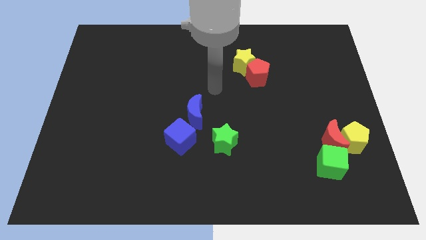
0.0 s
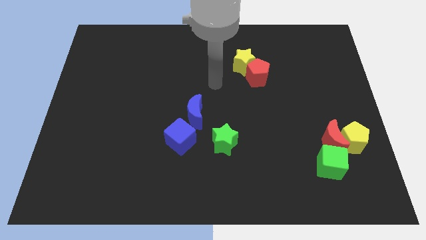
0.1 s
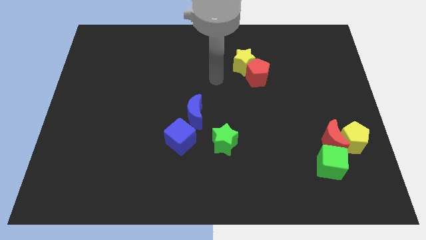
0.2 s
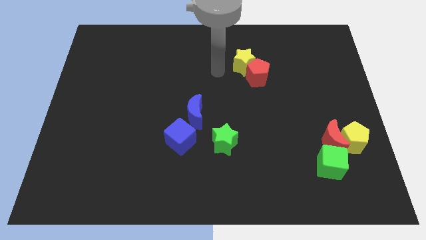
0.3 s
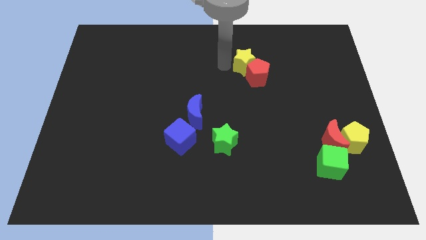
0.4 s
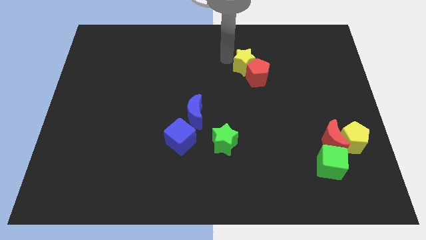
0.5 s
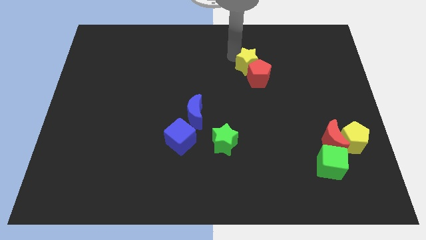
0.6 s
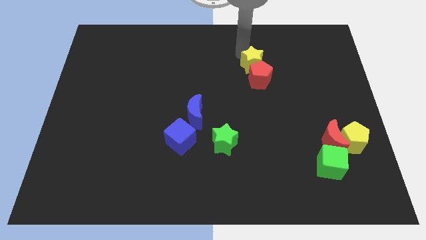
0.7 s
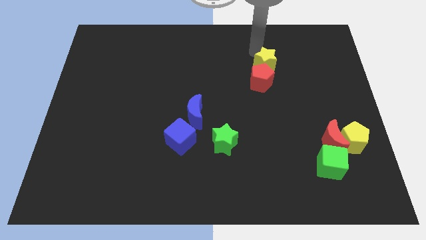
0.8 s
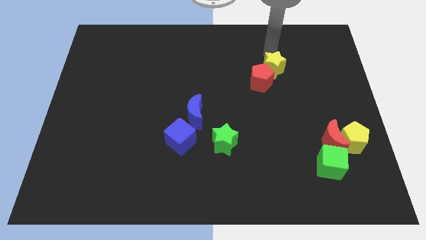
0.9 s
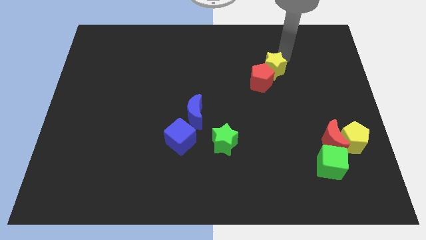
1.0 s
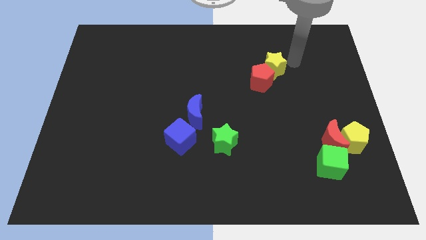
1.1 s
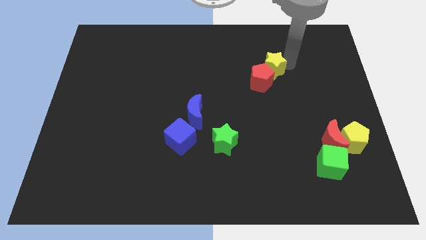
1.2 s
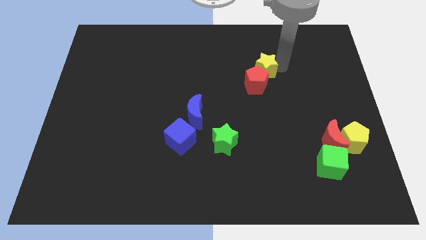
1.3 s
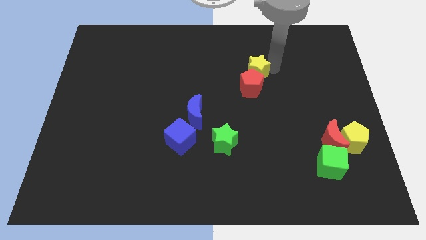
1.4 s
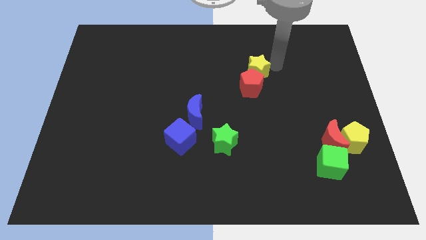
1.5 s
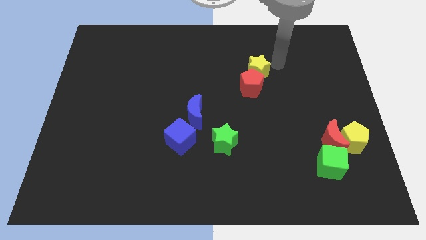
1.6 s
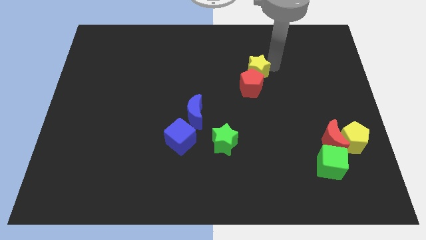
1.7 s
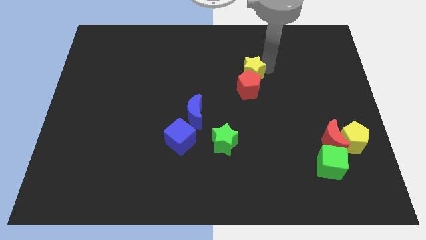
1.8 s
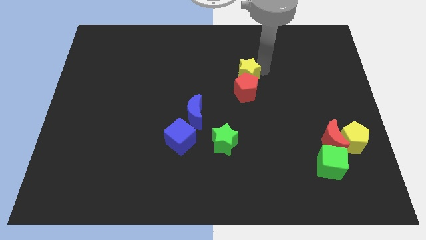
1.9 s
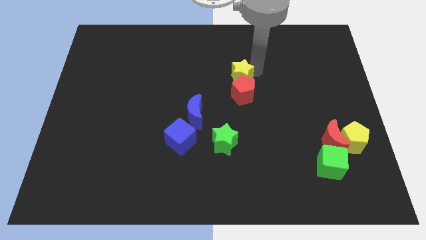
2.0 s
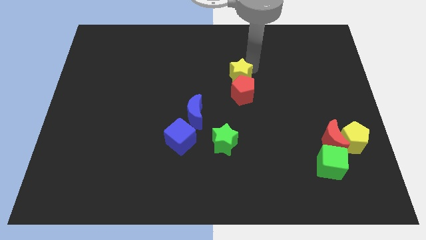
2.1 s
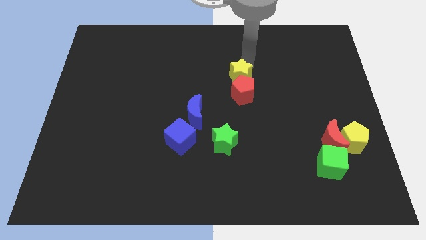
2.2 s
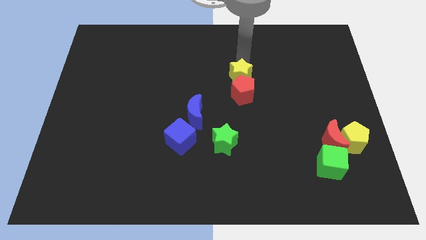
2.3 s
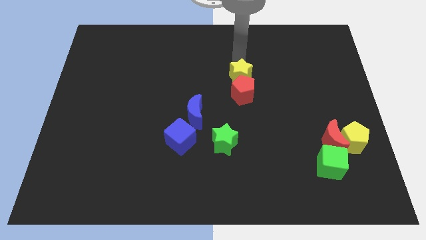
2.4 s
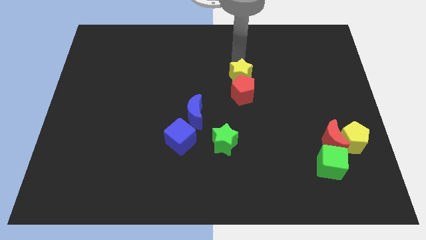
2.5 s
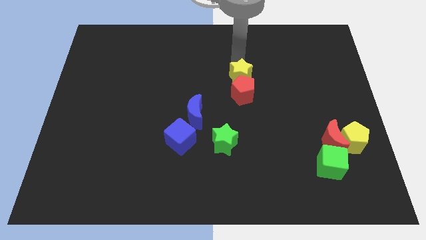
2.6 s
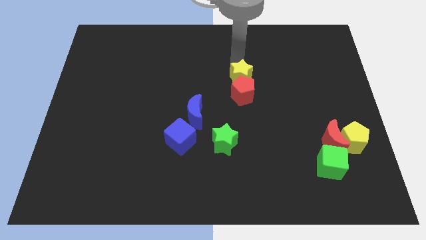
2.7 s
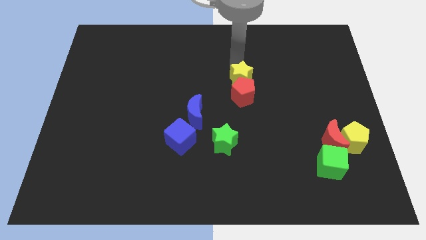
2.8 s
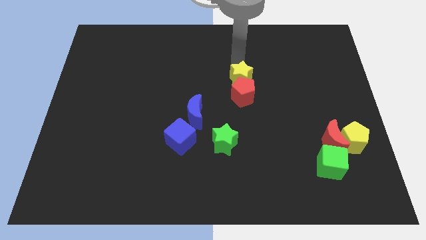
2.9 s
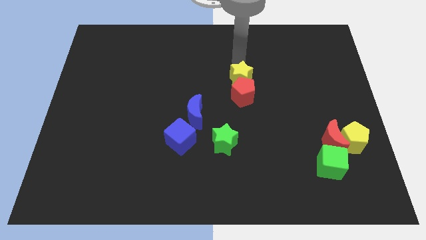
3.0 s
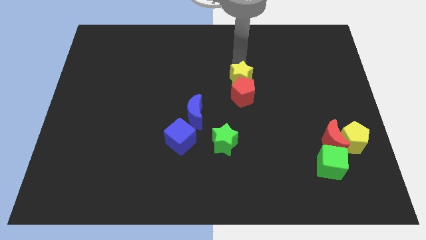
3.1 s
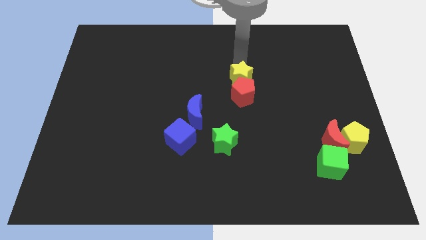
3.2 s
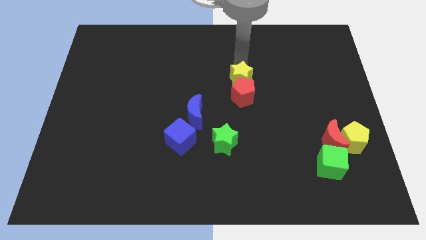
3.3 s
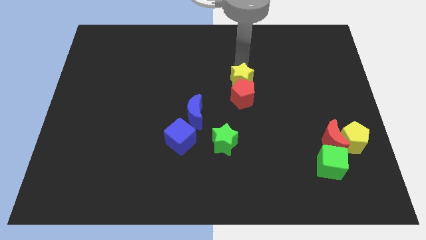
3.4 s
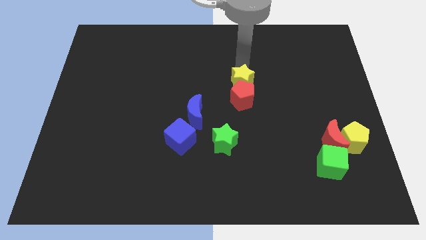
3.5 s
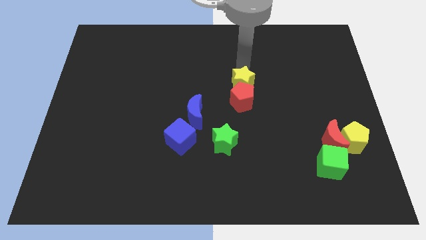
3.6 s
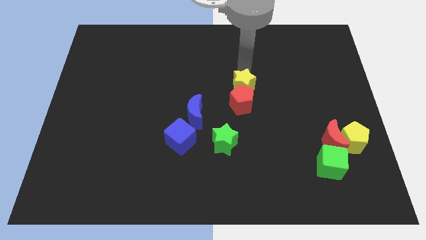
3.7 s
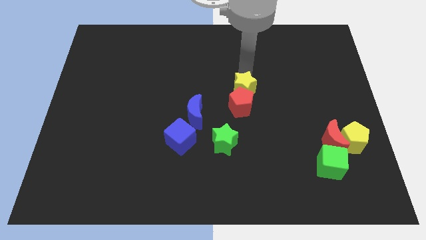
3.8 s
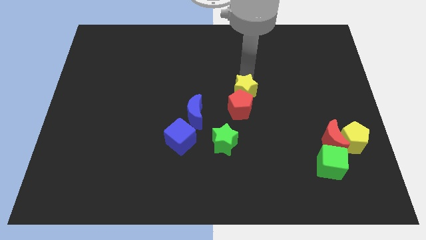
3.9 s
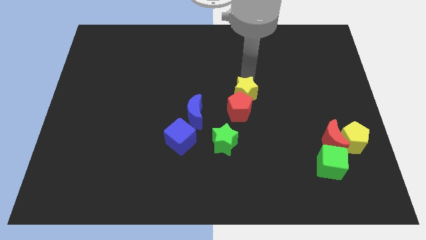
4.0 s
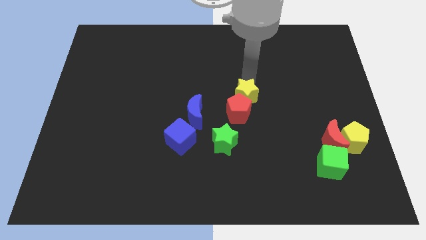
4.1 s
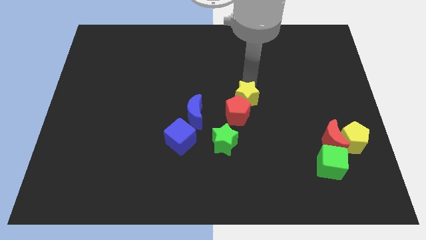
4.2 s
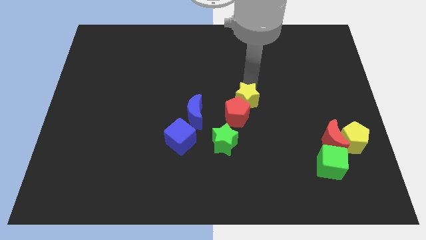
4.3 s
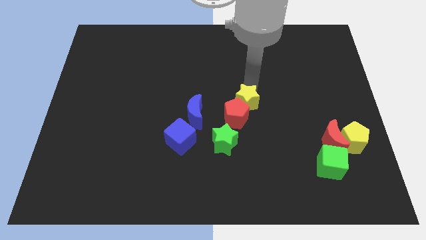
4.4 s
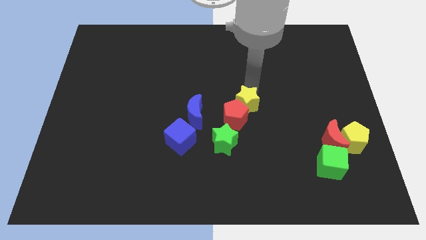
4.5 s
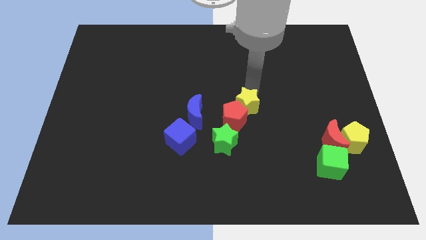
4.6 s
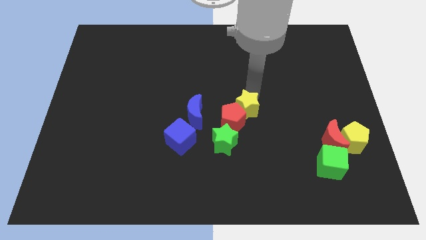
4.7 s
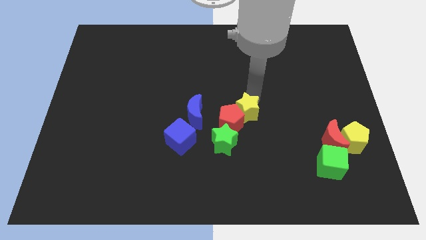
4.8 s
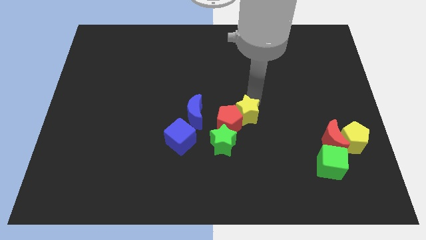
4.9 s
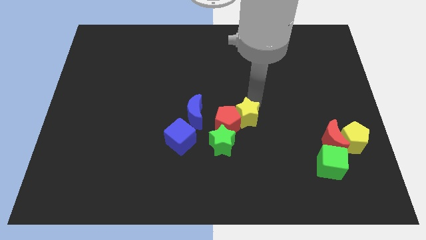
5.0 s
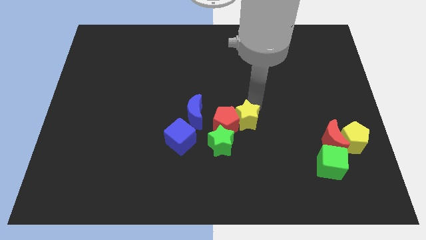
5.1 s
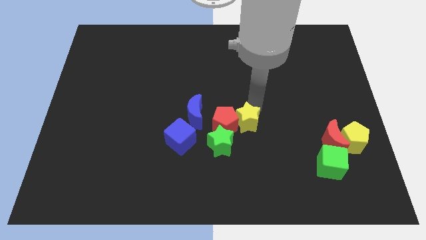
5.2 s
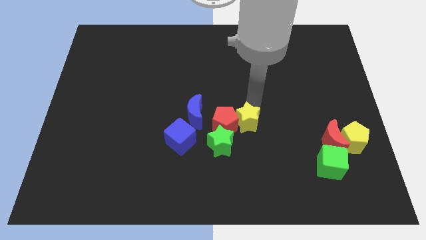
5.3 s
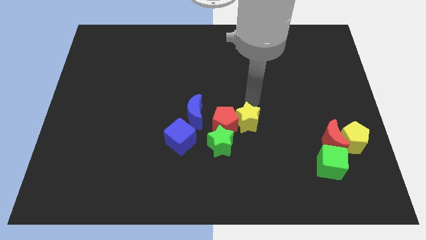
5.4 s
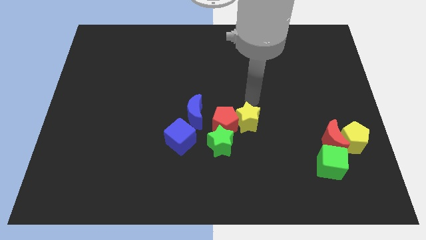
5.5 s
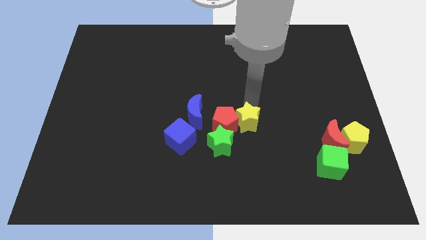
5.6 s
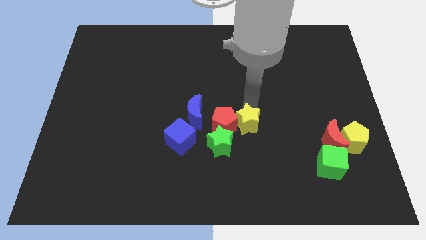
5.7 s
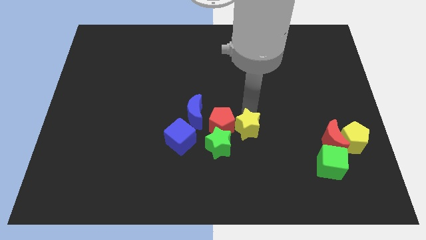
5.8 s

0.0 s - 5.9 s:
slide the yellow star downwards

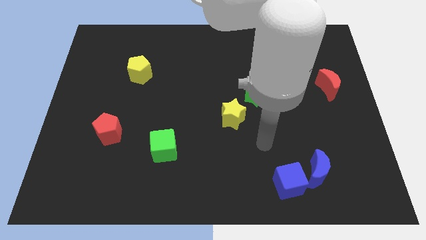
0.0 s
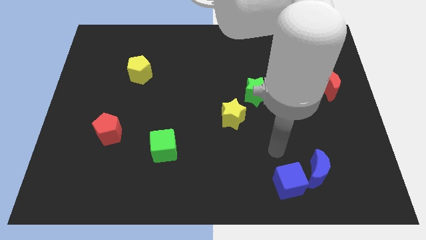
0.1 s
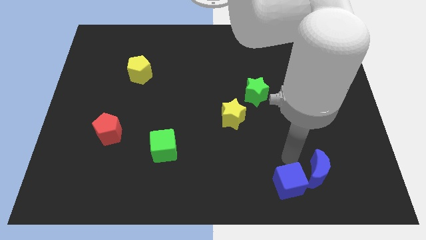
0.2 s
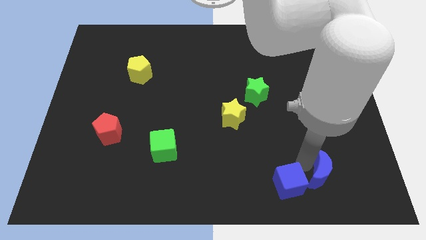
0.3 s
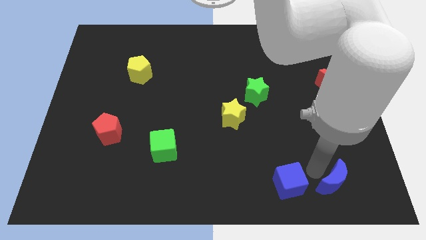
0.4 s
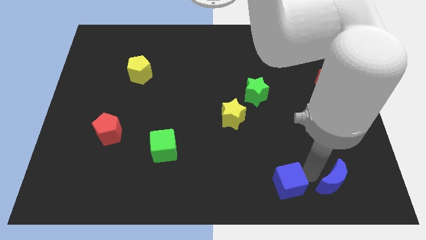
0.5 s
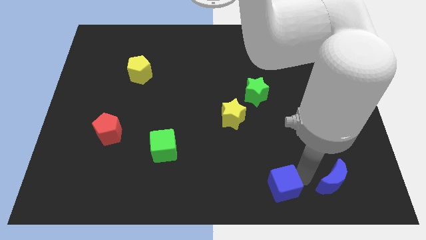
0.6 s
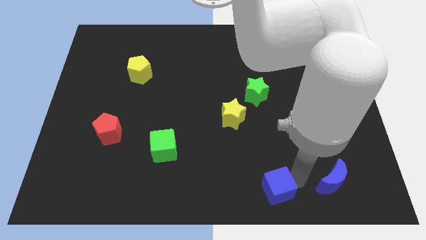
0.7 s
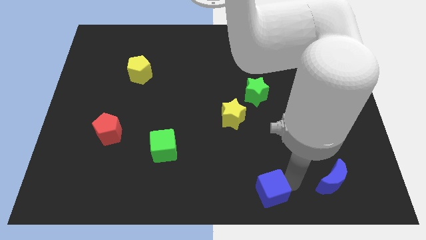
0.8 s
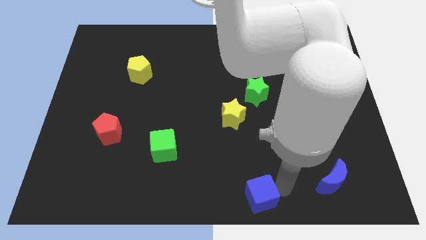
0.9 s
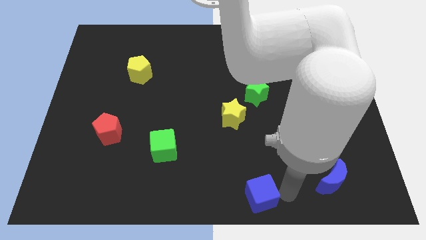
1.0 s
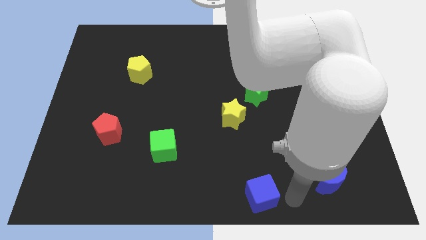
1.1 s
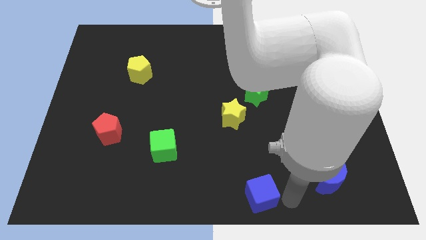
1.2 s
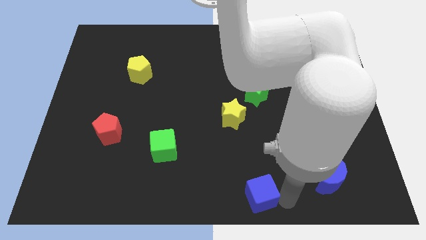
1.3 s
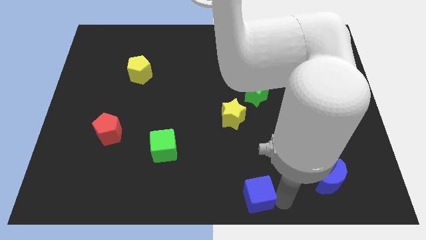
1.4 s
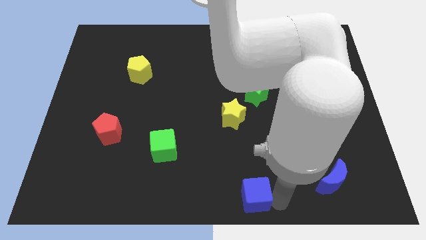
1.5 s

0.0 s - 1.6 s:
slightly move the blue cube to the left

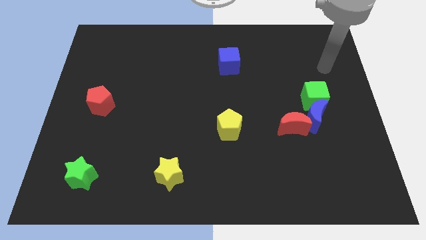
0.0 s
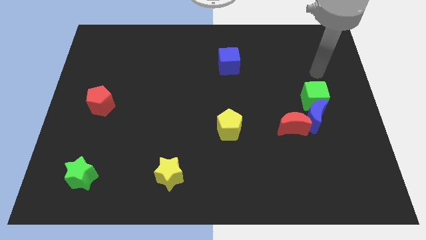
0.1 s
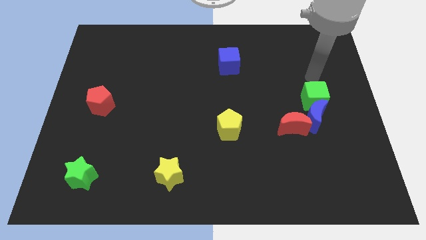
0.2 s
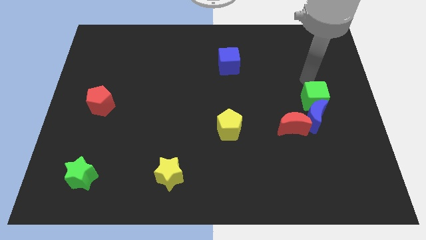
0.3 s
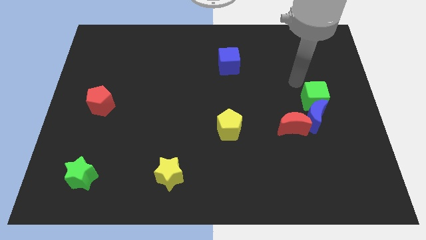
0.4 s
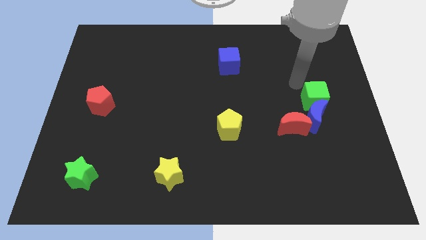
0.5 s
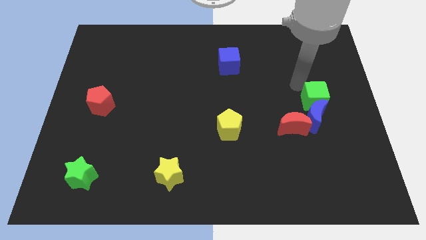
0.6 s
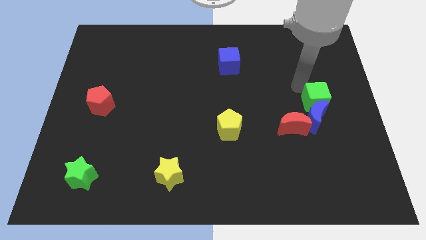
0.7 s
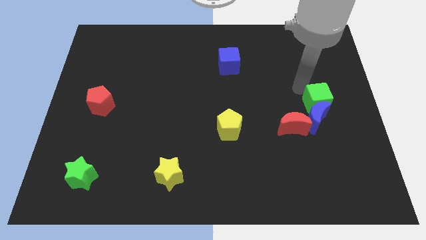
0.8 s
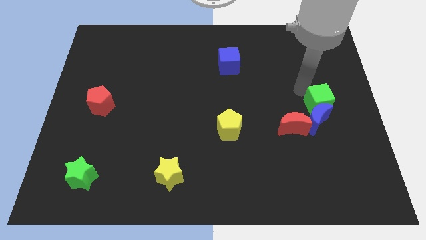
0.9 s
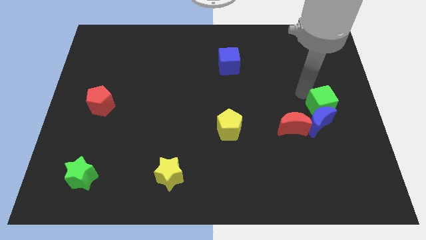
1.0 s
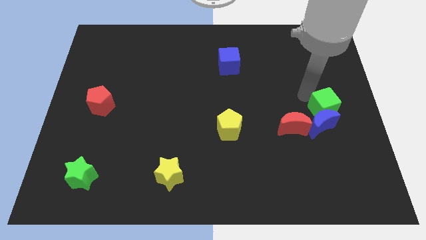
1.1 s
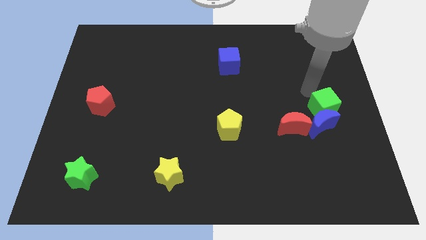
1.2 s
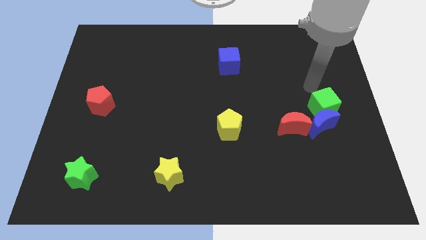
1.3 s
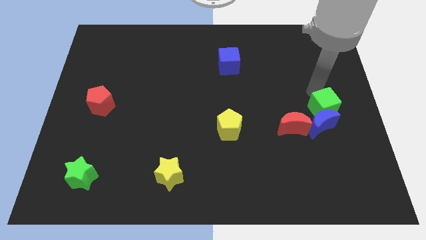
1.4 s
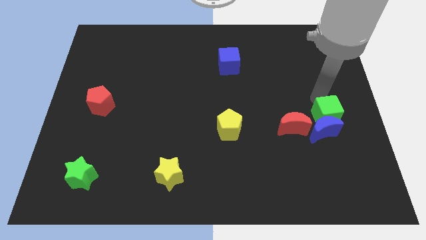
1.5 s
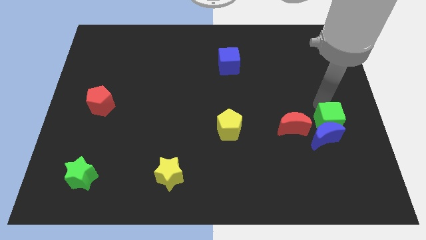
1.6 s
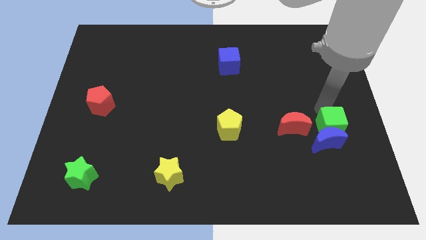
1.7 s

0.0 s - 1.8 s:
move the green cube somewhat downwards
